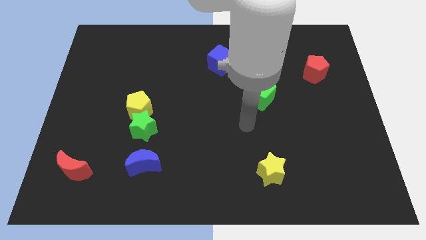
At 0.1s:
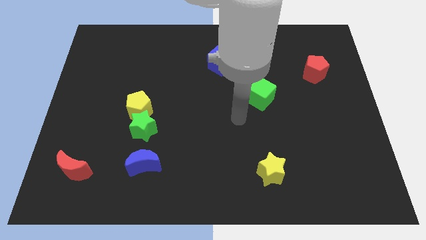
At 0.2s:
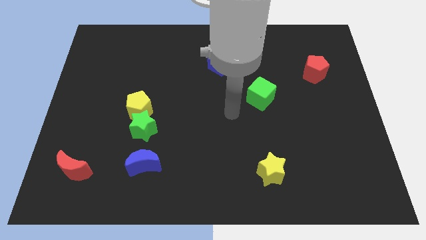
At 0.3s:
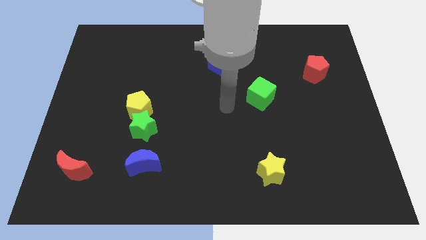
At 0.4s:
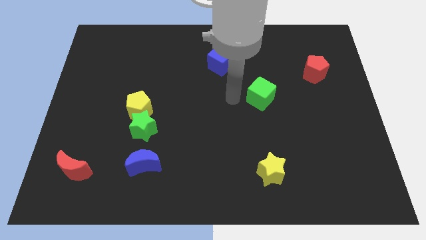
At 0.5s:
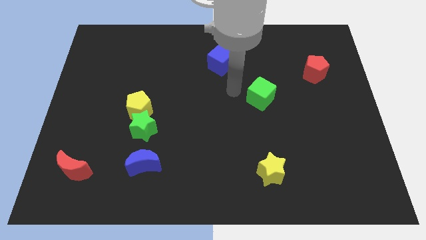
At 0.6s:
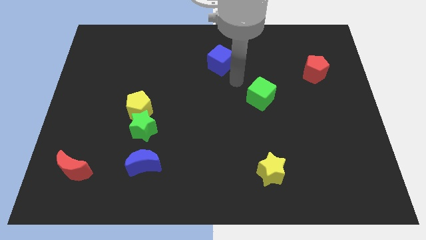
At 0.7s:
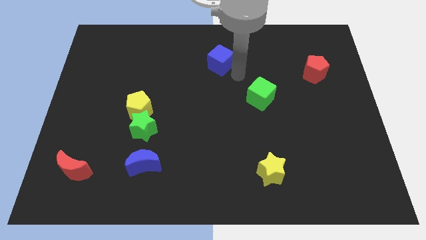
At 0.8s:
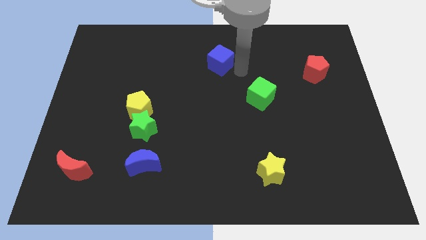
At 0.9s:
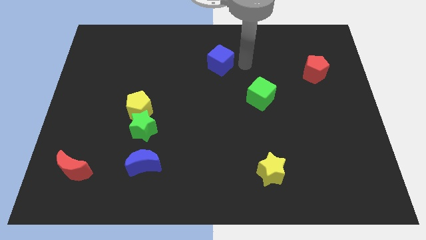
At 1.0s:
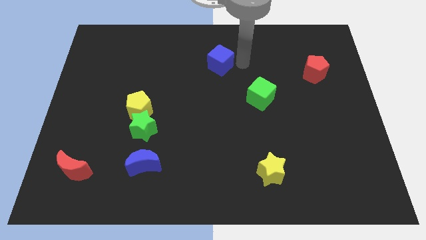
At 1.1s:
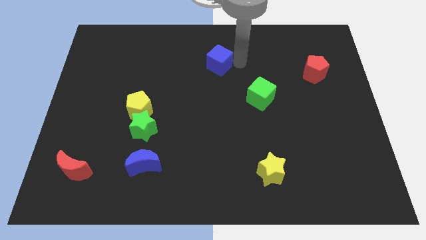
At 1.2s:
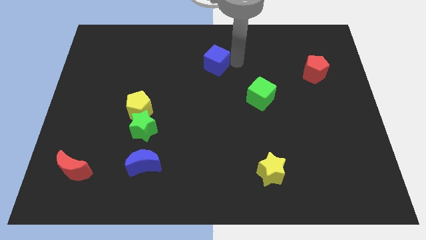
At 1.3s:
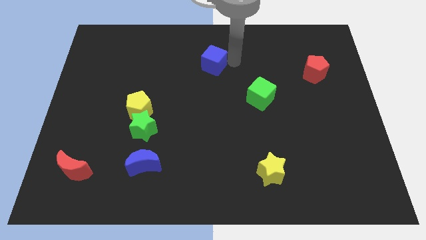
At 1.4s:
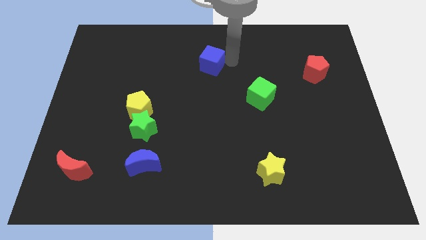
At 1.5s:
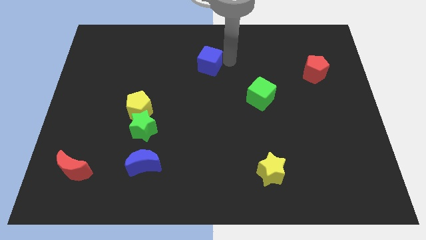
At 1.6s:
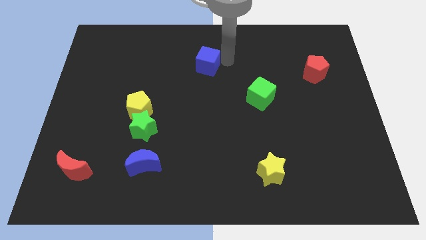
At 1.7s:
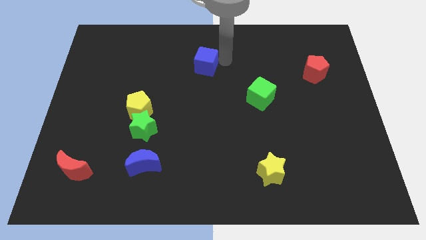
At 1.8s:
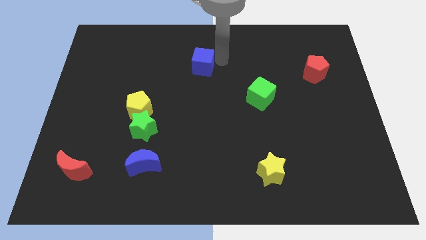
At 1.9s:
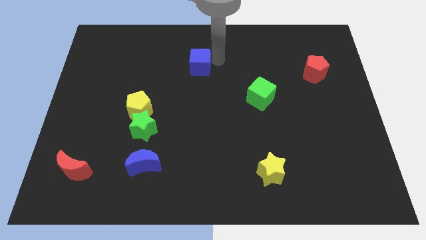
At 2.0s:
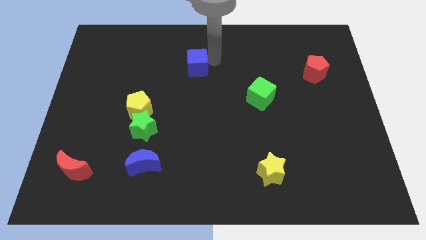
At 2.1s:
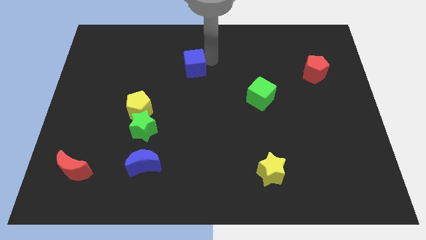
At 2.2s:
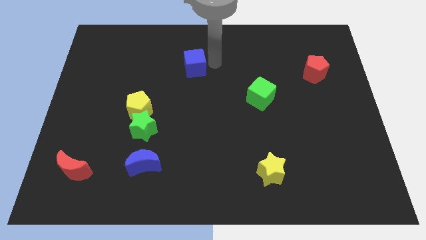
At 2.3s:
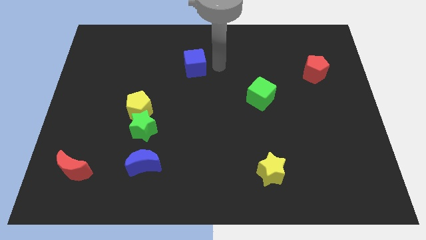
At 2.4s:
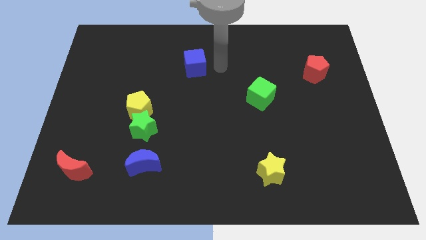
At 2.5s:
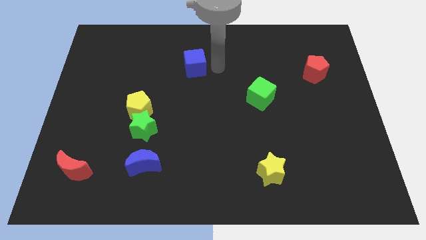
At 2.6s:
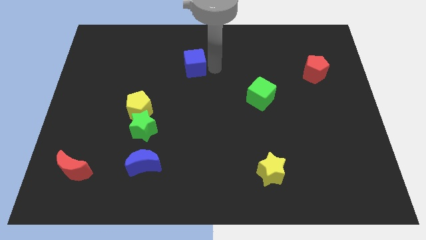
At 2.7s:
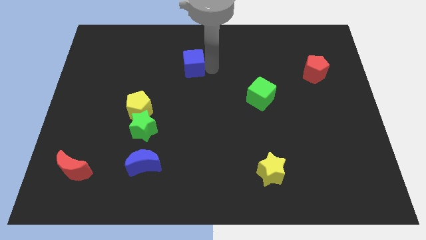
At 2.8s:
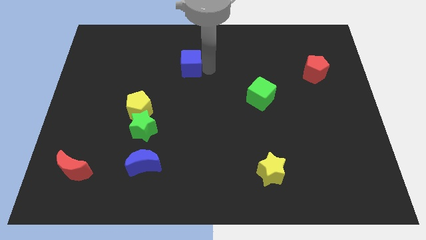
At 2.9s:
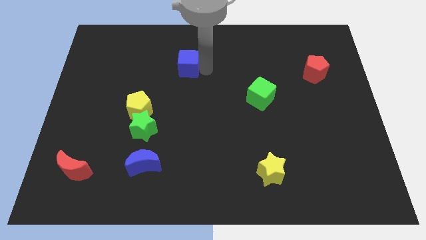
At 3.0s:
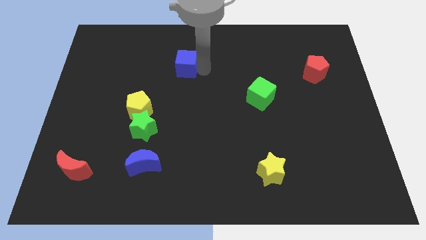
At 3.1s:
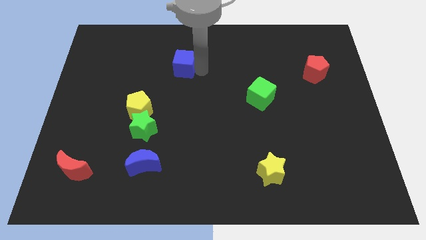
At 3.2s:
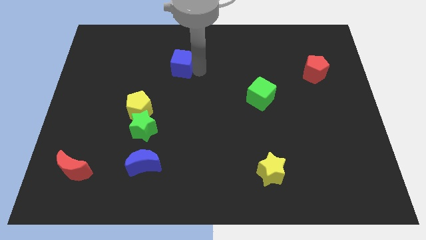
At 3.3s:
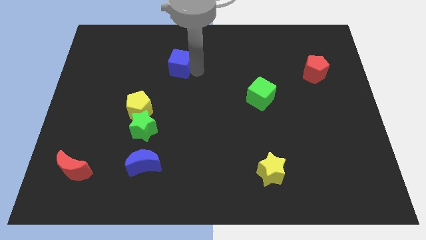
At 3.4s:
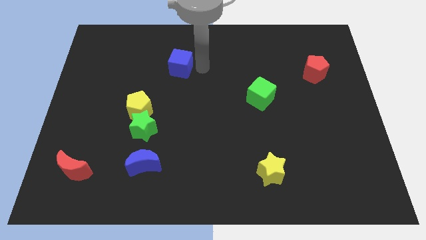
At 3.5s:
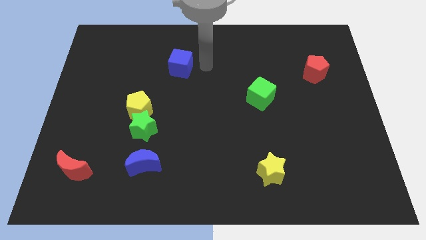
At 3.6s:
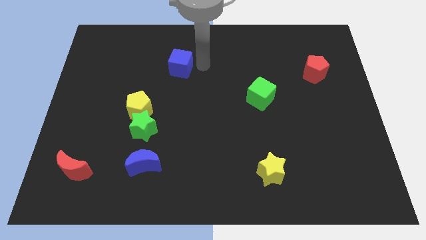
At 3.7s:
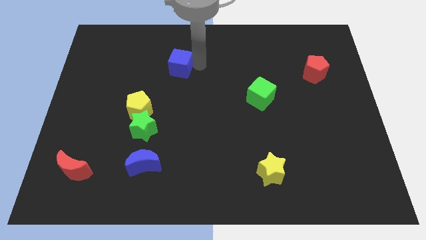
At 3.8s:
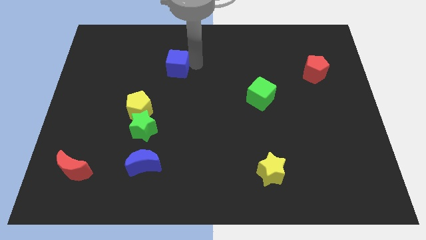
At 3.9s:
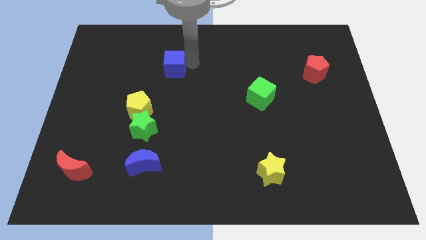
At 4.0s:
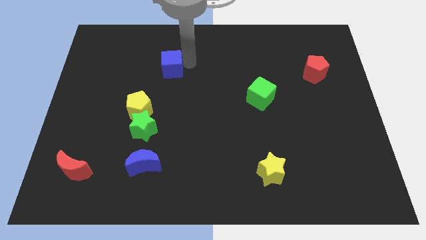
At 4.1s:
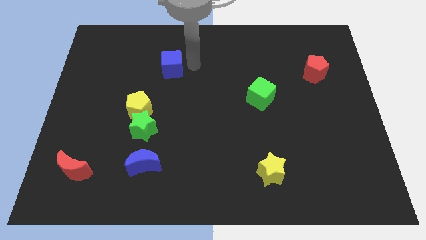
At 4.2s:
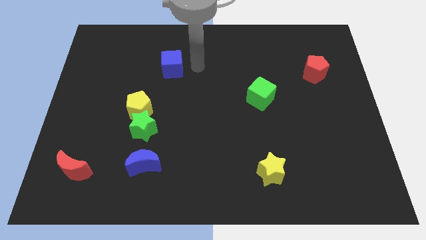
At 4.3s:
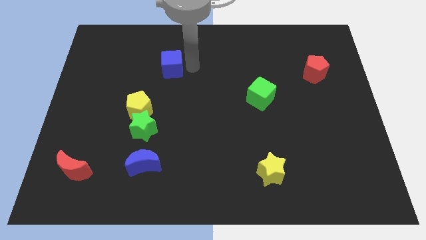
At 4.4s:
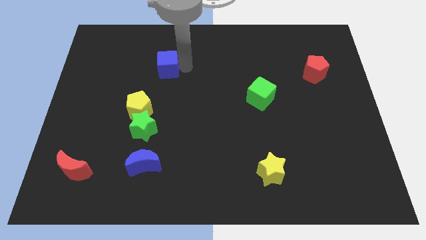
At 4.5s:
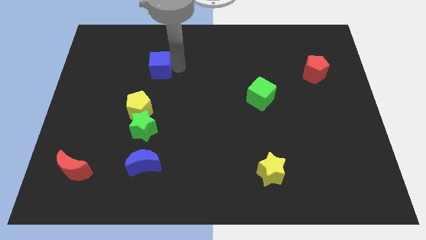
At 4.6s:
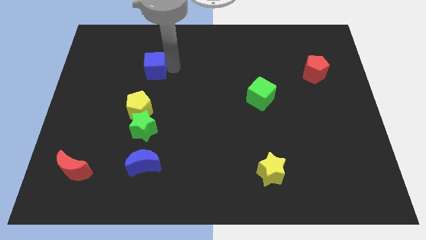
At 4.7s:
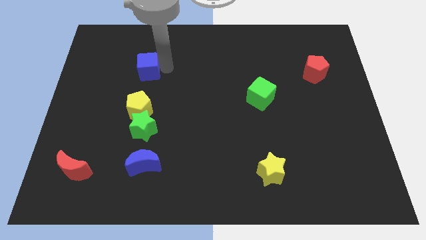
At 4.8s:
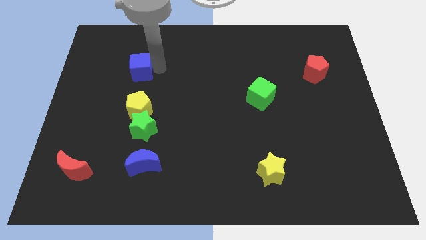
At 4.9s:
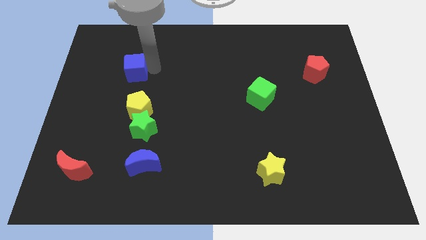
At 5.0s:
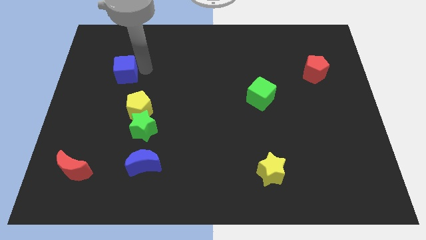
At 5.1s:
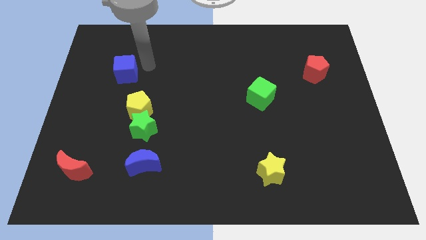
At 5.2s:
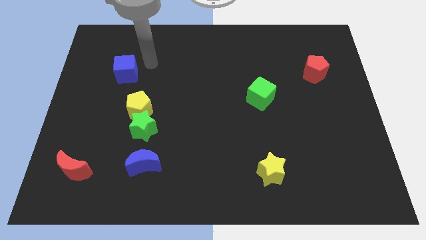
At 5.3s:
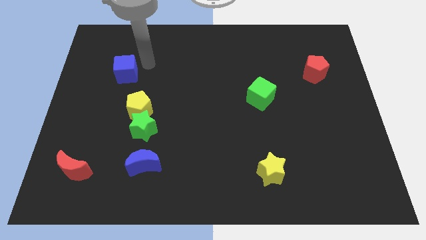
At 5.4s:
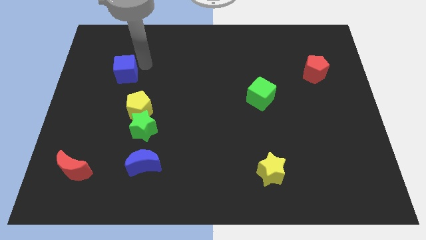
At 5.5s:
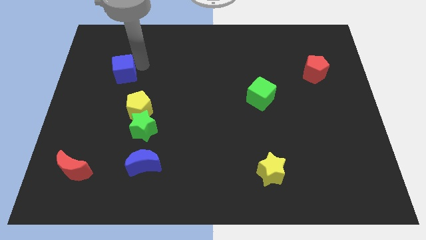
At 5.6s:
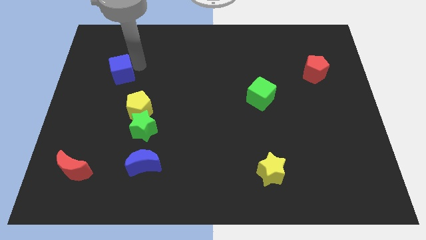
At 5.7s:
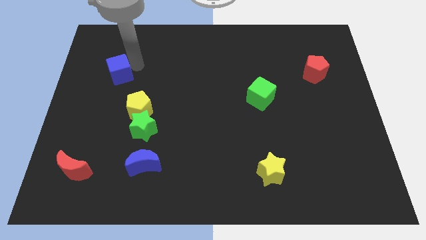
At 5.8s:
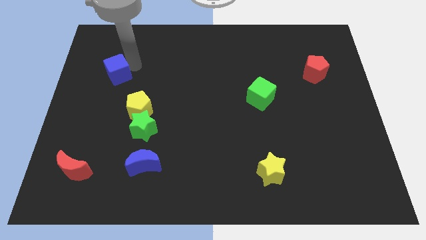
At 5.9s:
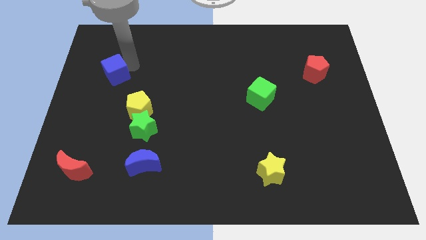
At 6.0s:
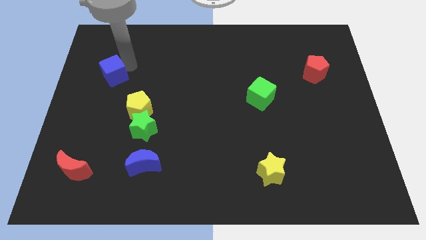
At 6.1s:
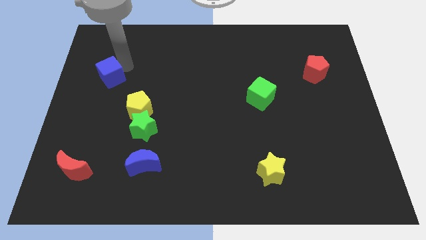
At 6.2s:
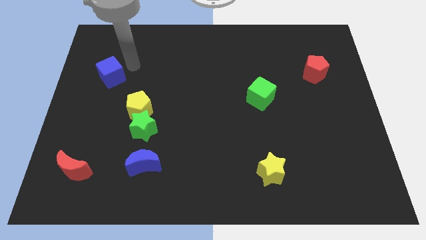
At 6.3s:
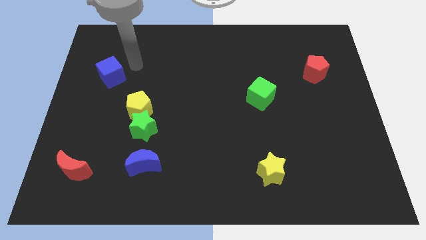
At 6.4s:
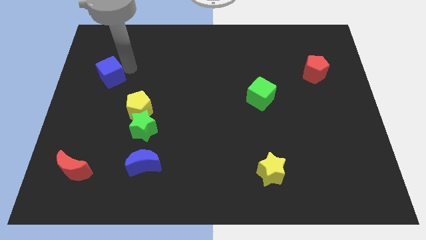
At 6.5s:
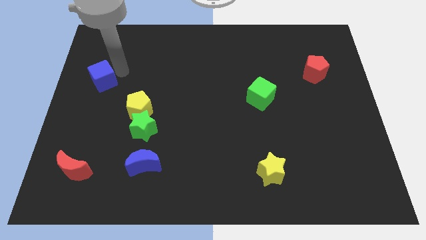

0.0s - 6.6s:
move the blue cube to the center left
